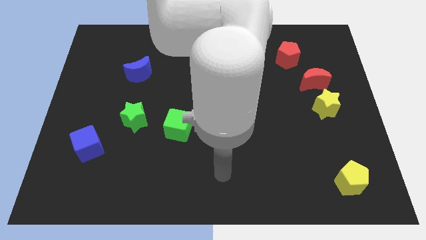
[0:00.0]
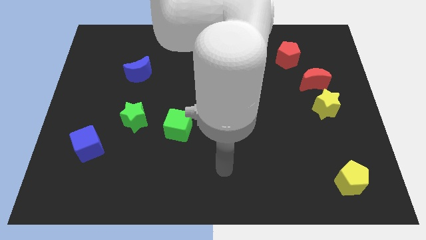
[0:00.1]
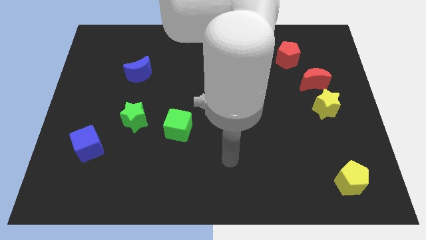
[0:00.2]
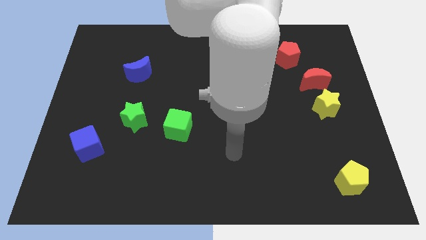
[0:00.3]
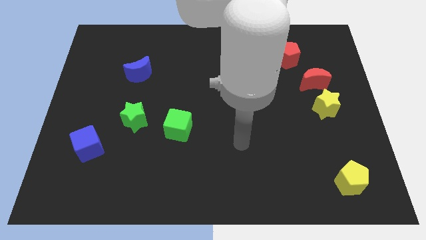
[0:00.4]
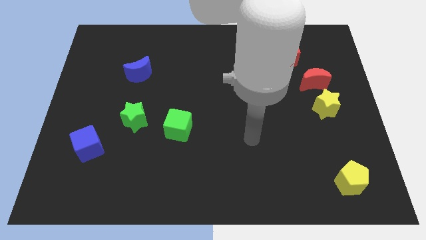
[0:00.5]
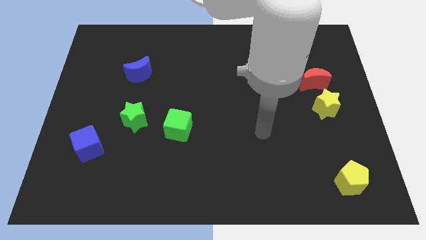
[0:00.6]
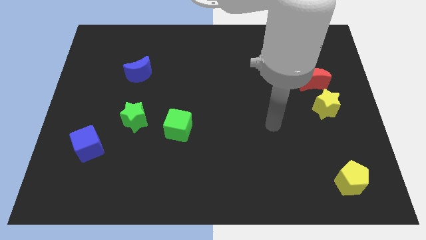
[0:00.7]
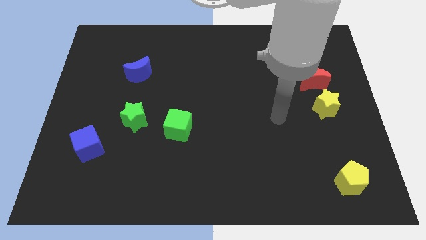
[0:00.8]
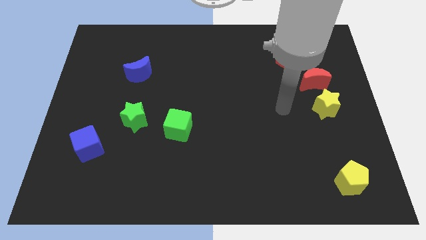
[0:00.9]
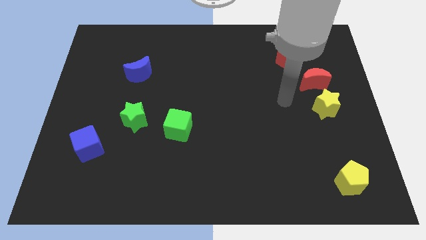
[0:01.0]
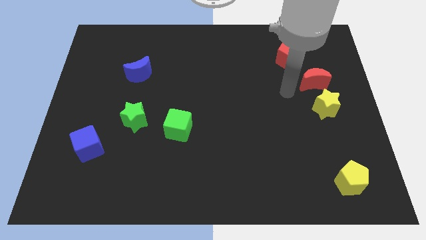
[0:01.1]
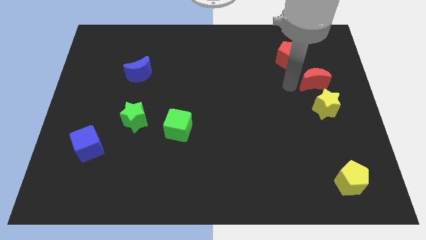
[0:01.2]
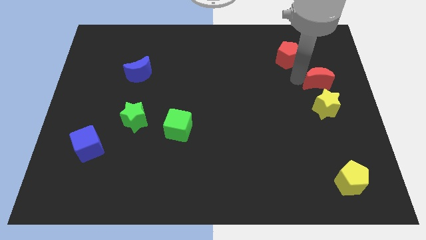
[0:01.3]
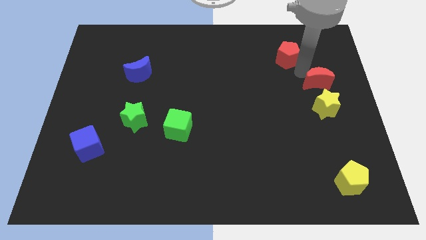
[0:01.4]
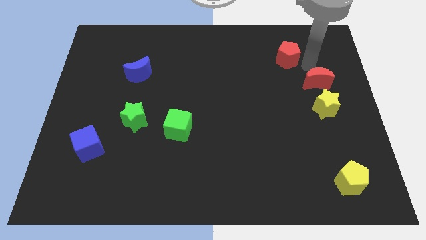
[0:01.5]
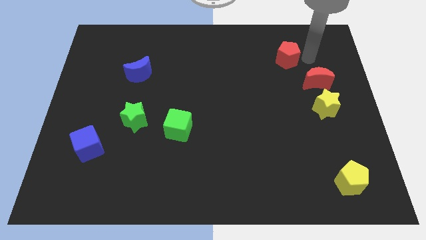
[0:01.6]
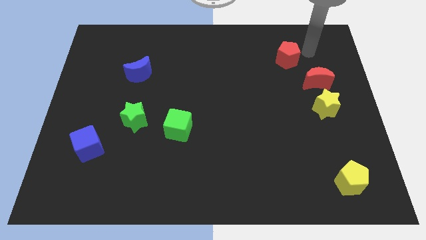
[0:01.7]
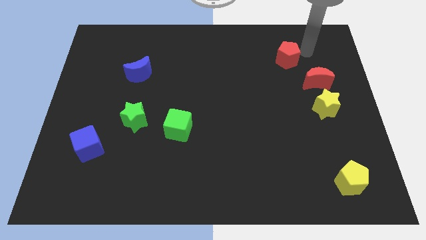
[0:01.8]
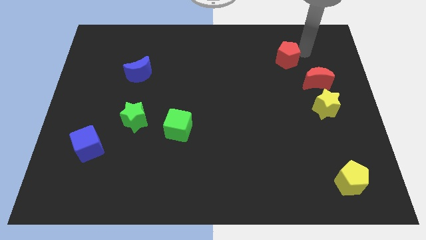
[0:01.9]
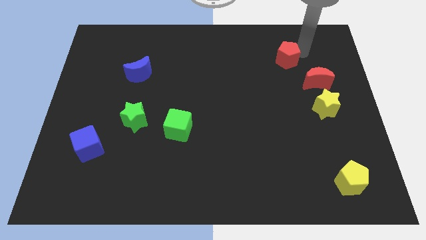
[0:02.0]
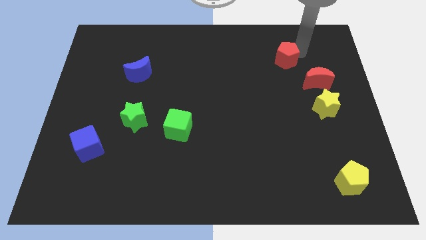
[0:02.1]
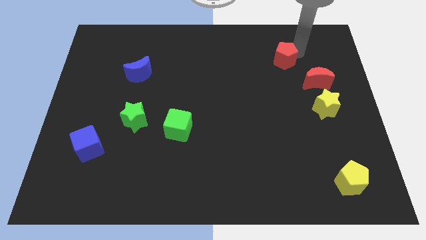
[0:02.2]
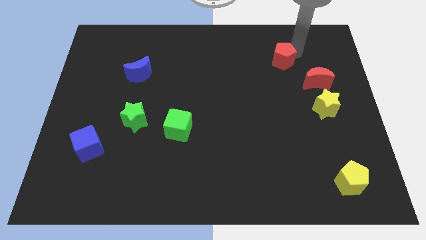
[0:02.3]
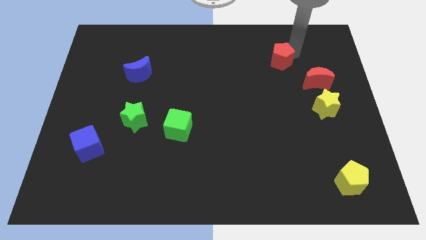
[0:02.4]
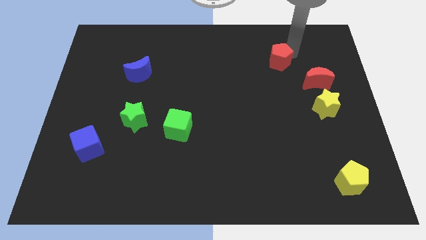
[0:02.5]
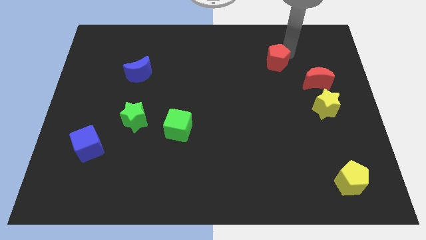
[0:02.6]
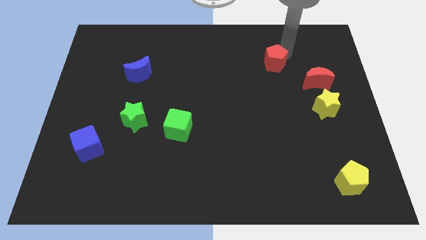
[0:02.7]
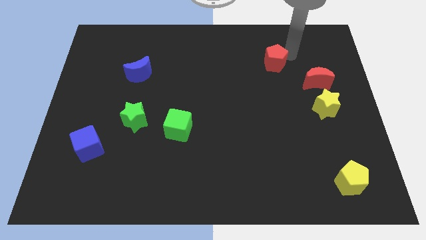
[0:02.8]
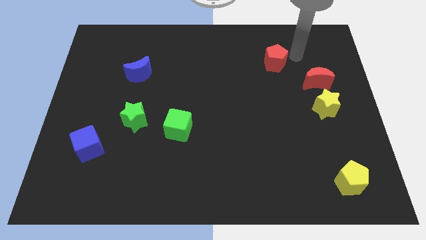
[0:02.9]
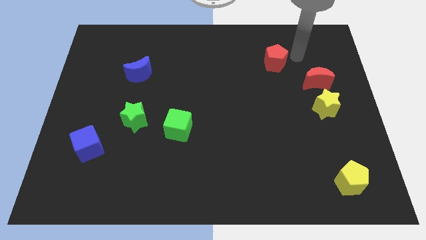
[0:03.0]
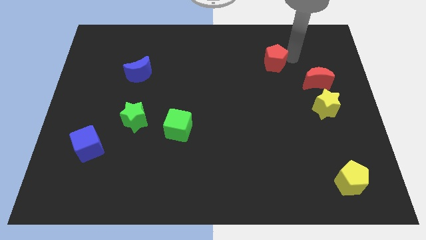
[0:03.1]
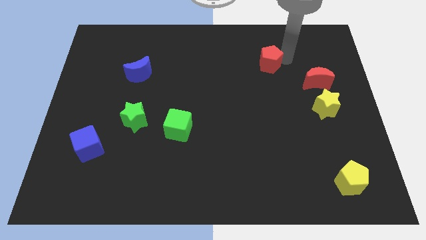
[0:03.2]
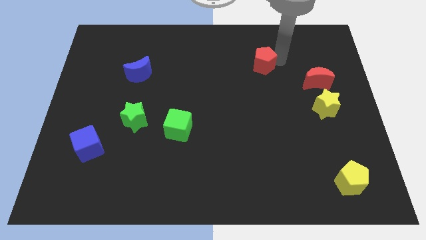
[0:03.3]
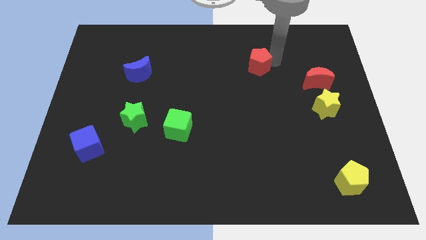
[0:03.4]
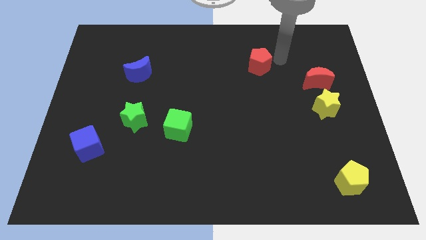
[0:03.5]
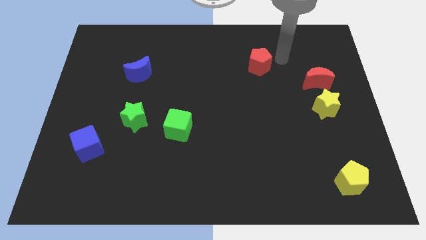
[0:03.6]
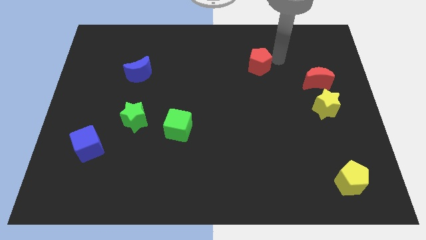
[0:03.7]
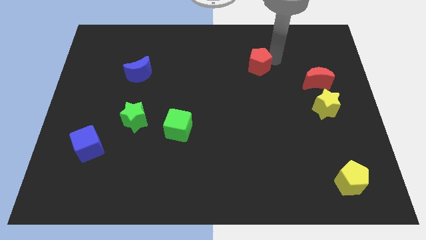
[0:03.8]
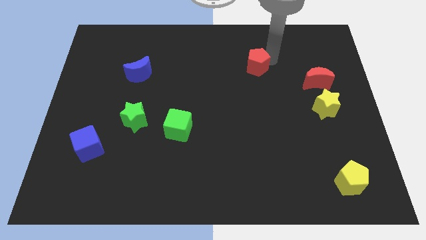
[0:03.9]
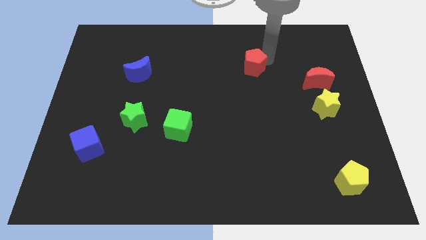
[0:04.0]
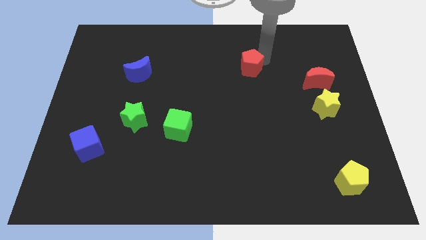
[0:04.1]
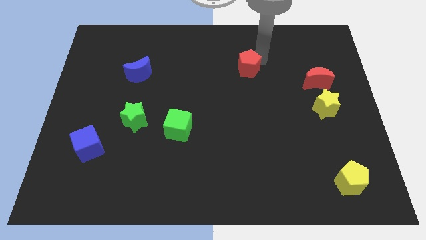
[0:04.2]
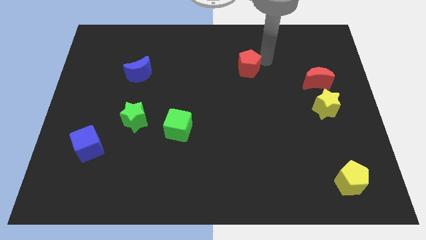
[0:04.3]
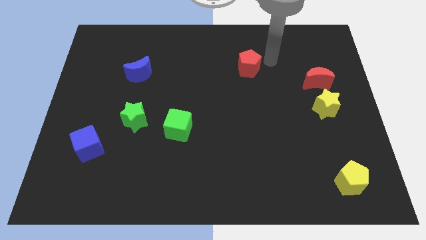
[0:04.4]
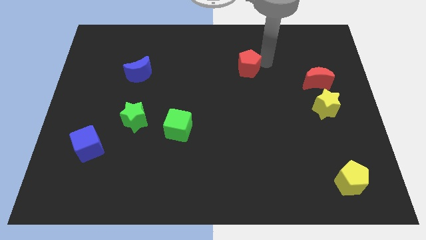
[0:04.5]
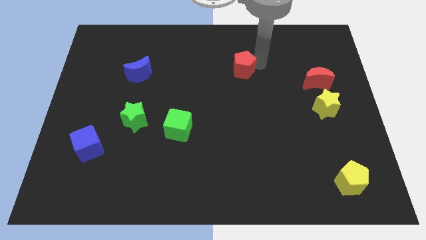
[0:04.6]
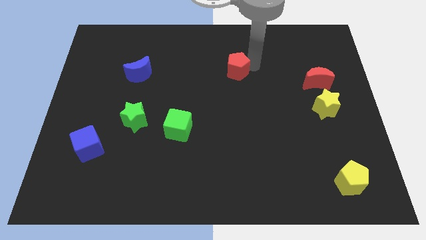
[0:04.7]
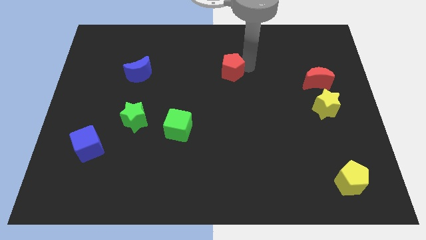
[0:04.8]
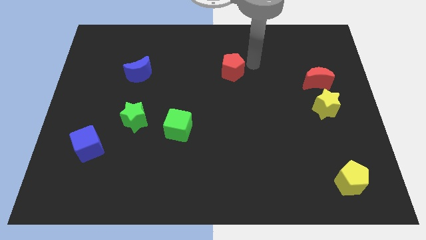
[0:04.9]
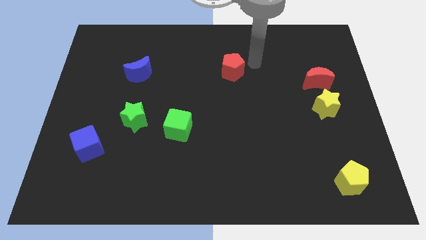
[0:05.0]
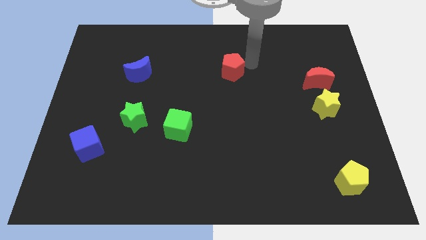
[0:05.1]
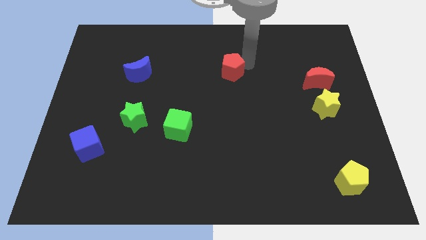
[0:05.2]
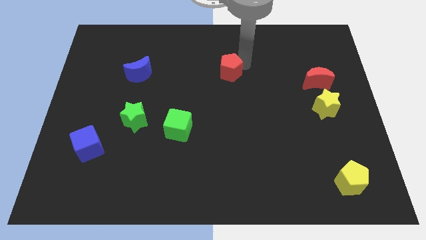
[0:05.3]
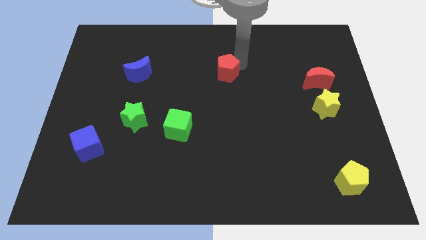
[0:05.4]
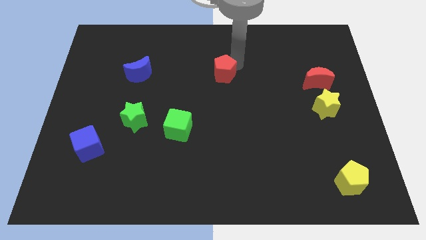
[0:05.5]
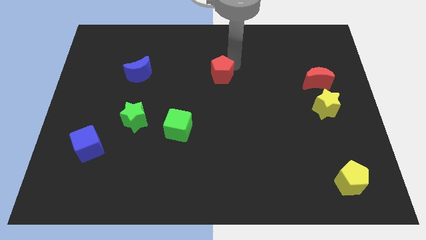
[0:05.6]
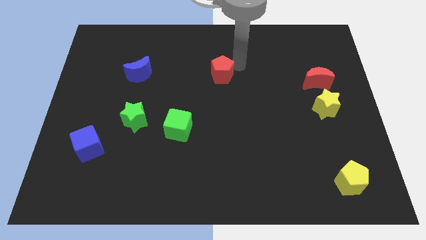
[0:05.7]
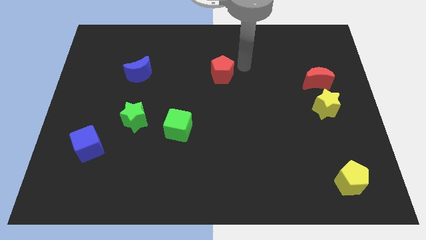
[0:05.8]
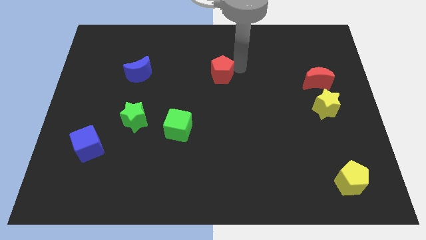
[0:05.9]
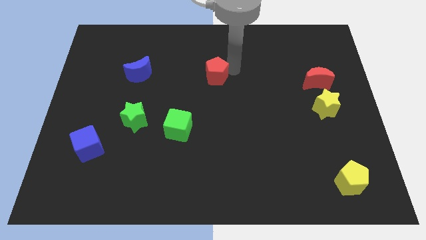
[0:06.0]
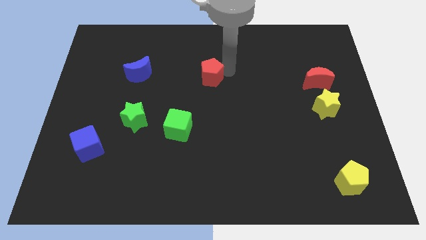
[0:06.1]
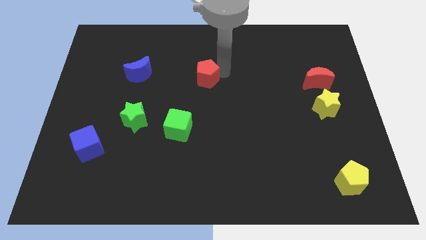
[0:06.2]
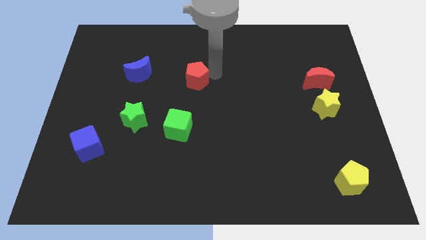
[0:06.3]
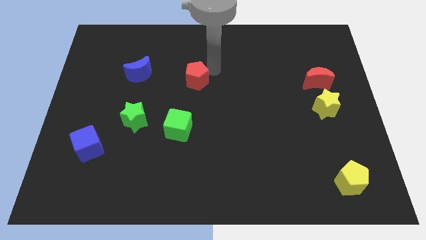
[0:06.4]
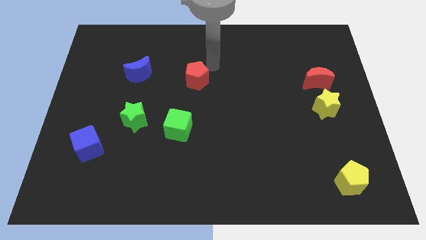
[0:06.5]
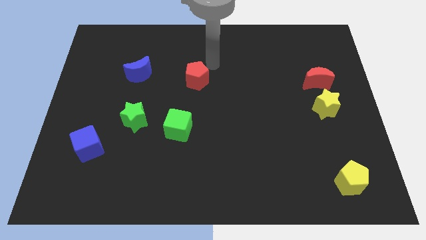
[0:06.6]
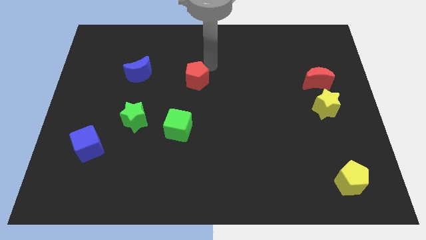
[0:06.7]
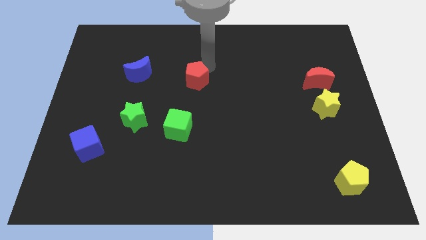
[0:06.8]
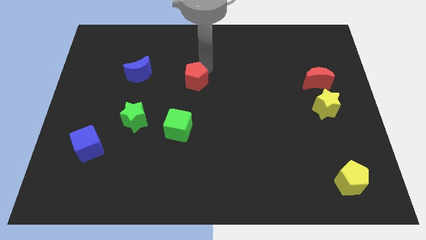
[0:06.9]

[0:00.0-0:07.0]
put the red pentagon above the green cube

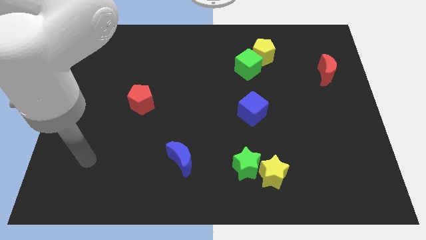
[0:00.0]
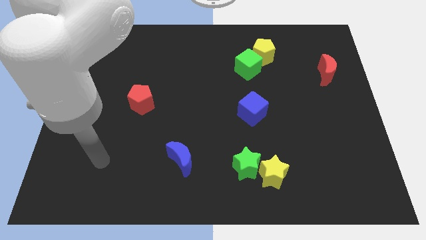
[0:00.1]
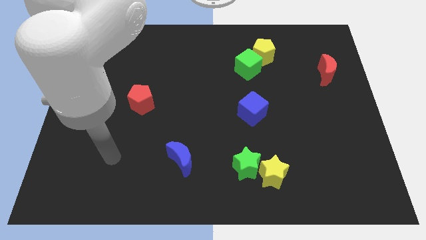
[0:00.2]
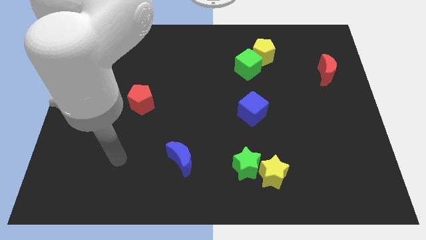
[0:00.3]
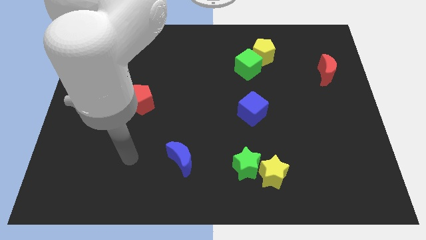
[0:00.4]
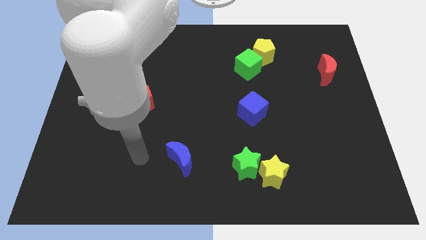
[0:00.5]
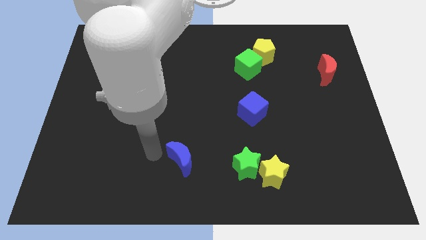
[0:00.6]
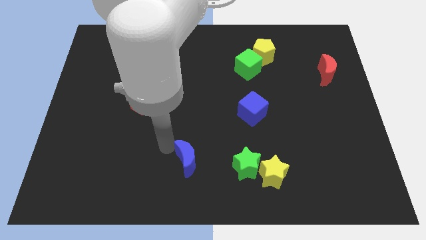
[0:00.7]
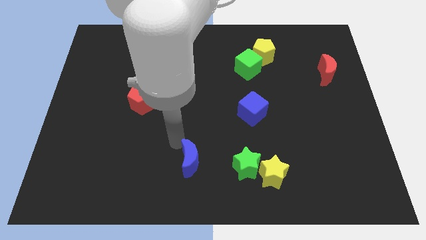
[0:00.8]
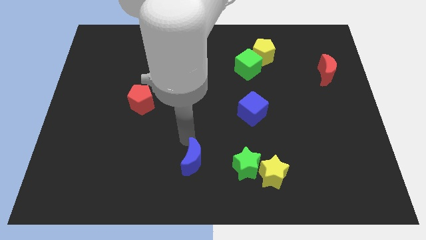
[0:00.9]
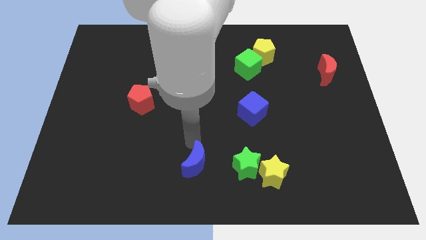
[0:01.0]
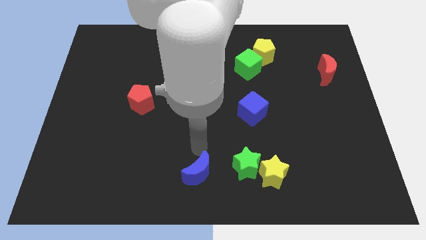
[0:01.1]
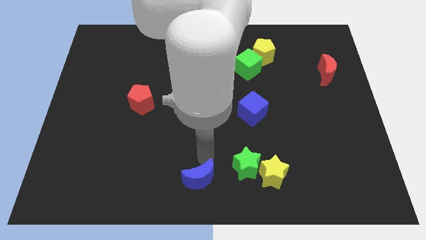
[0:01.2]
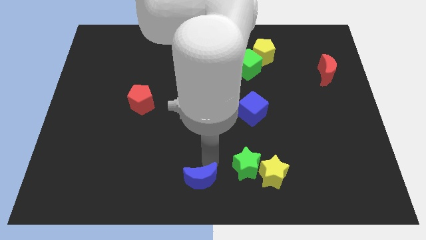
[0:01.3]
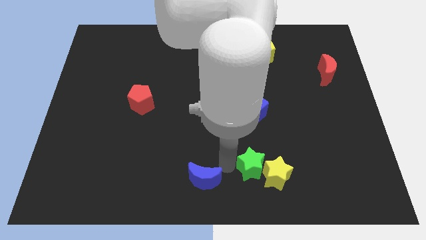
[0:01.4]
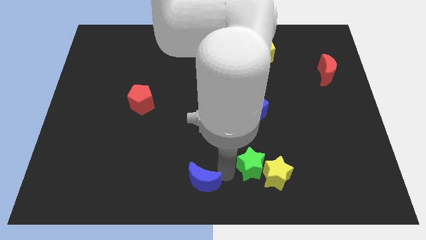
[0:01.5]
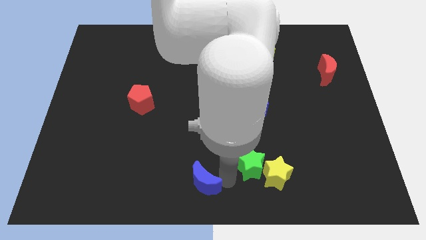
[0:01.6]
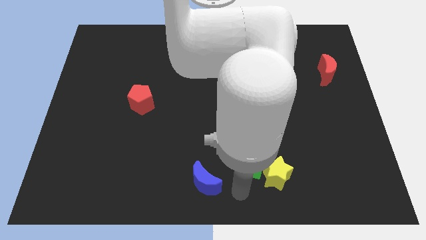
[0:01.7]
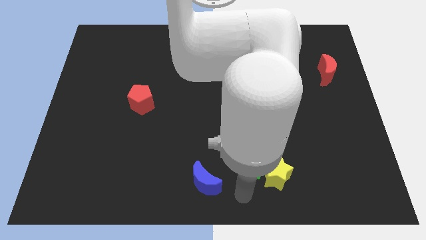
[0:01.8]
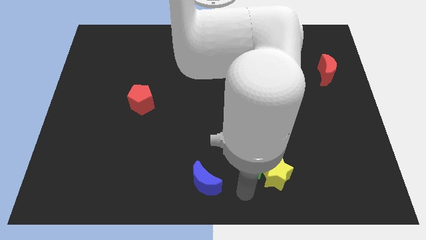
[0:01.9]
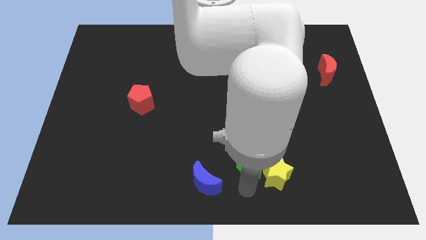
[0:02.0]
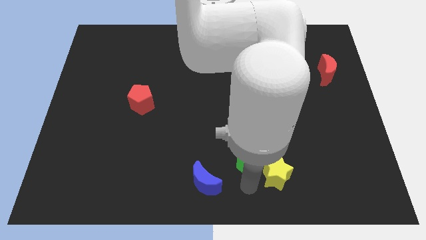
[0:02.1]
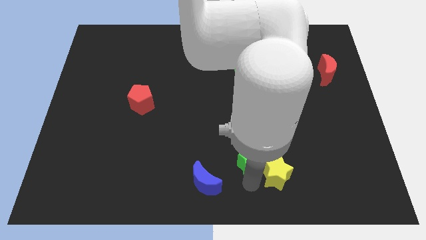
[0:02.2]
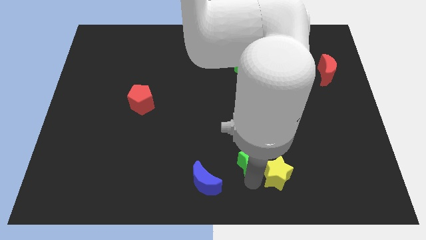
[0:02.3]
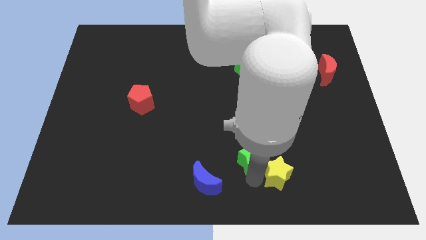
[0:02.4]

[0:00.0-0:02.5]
push the green star above the yellow star
